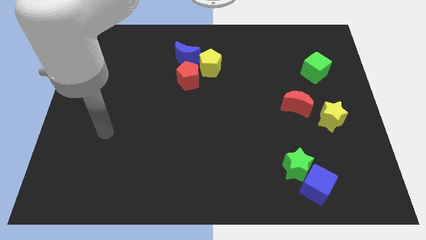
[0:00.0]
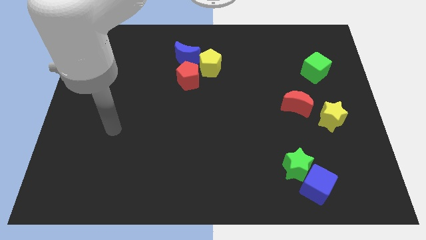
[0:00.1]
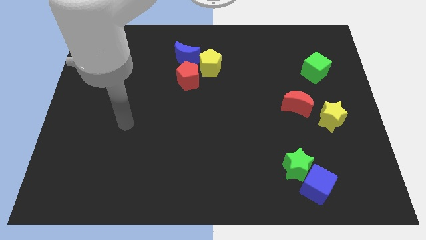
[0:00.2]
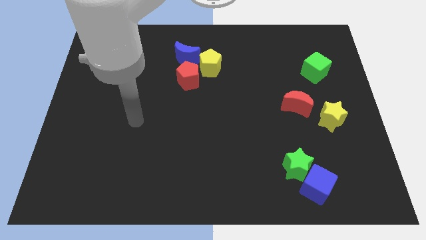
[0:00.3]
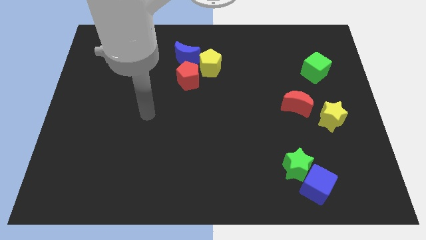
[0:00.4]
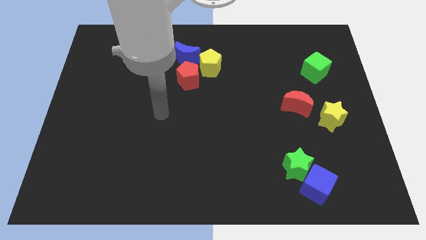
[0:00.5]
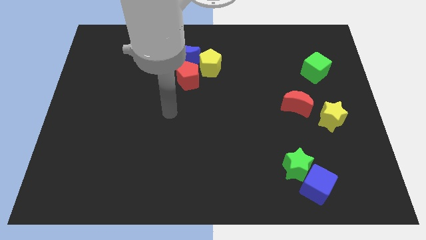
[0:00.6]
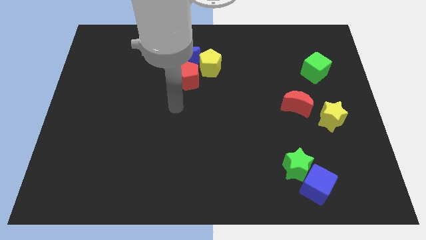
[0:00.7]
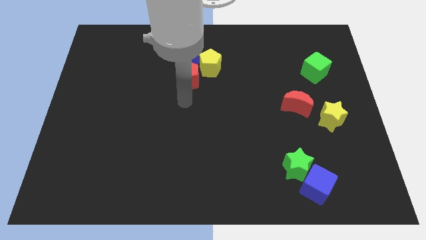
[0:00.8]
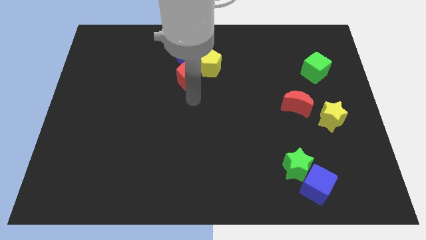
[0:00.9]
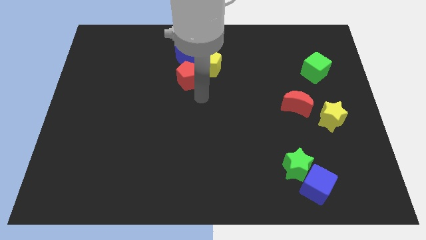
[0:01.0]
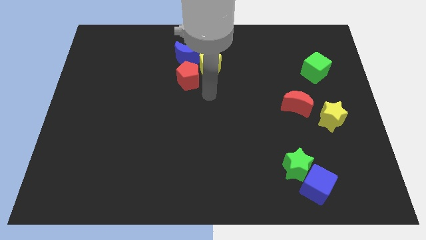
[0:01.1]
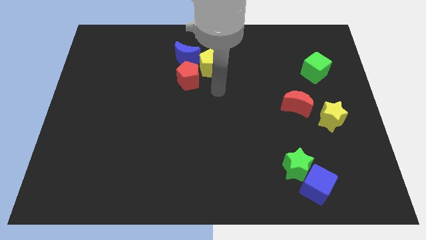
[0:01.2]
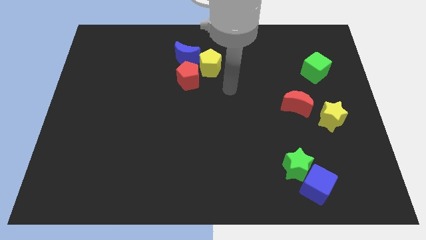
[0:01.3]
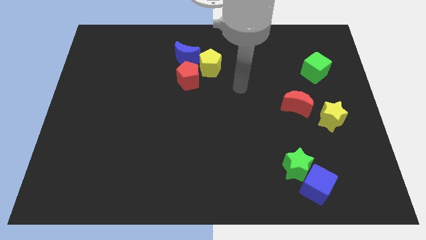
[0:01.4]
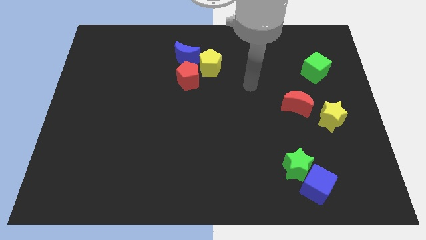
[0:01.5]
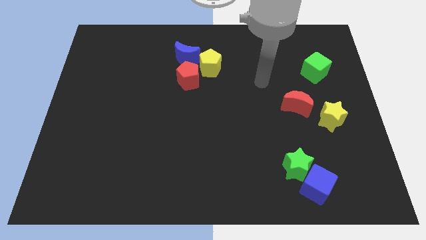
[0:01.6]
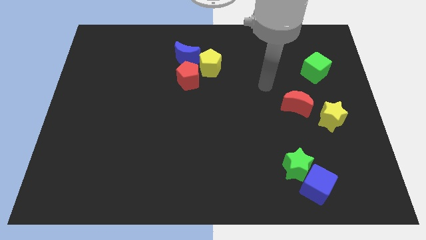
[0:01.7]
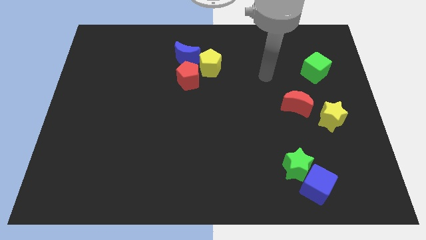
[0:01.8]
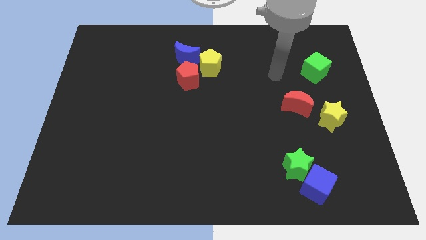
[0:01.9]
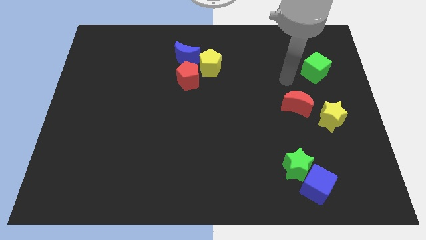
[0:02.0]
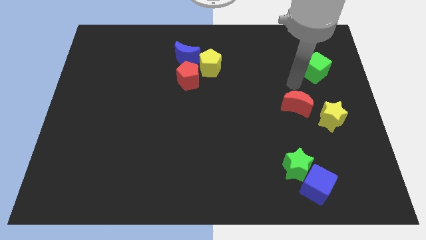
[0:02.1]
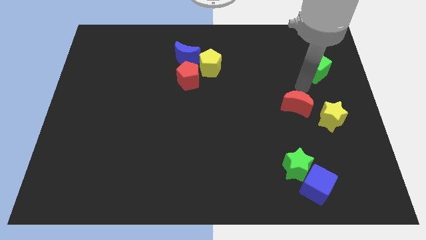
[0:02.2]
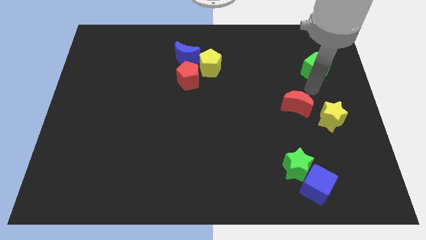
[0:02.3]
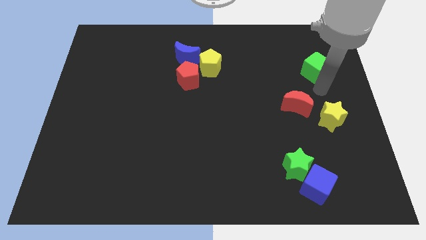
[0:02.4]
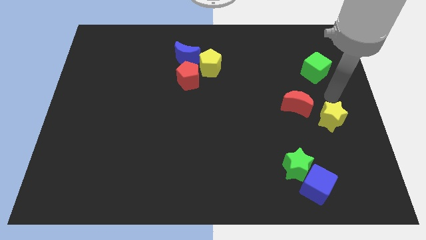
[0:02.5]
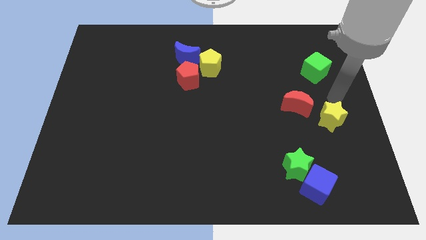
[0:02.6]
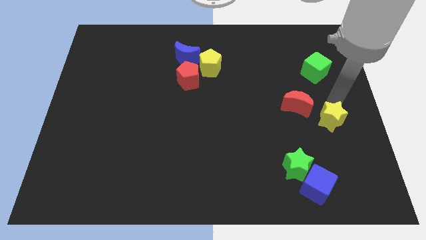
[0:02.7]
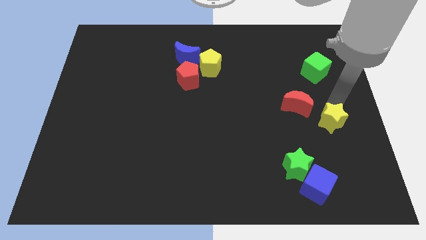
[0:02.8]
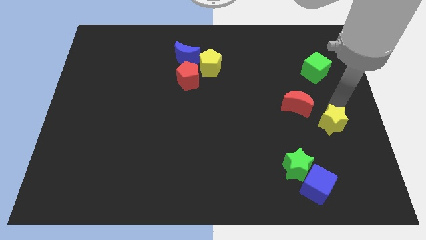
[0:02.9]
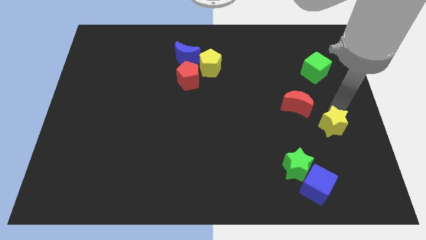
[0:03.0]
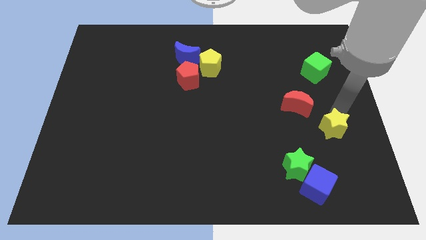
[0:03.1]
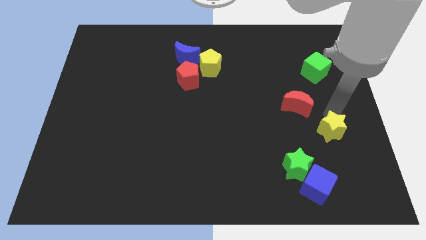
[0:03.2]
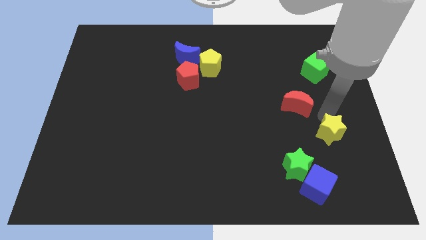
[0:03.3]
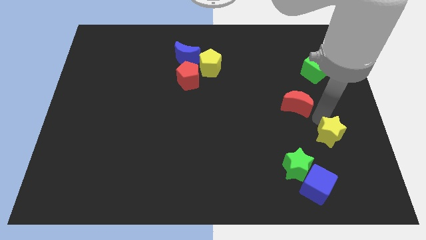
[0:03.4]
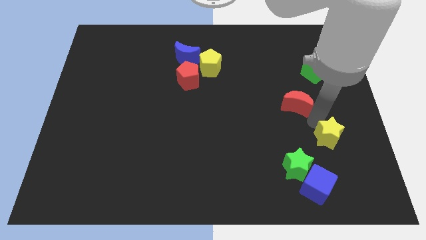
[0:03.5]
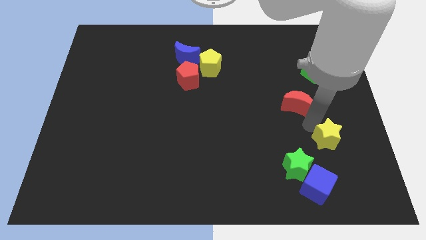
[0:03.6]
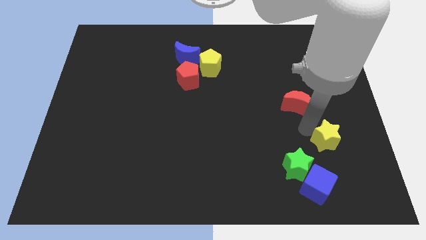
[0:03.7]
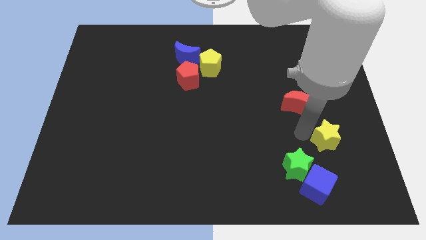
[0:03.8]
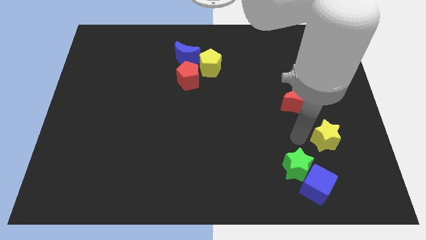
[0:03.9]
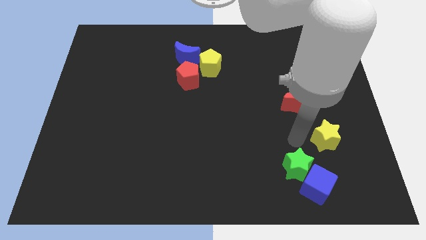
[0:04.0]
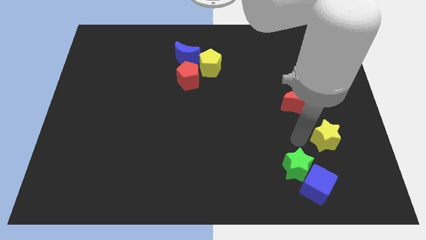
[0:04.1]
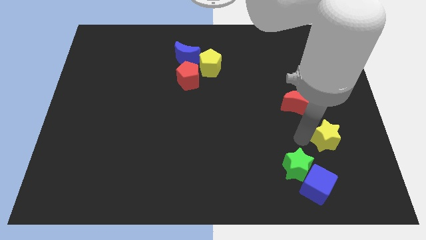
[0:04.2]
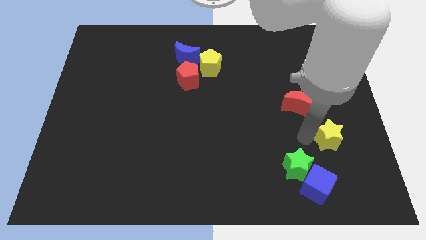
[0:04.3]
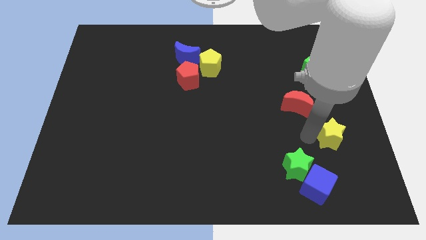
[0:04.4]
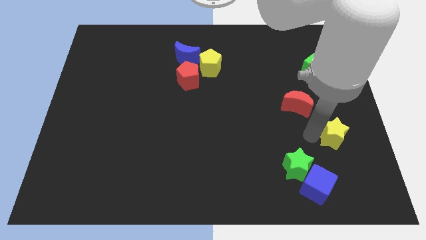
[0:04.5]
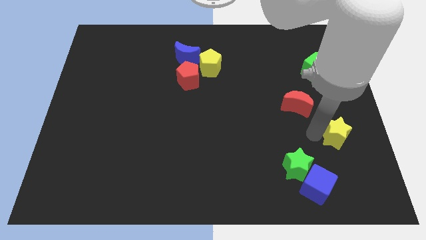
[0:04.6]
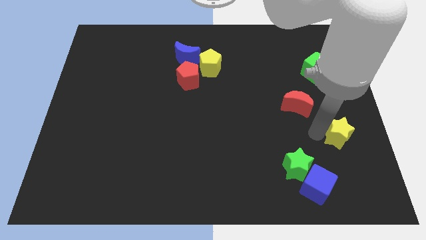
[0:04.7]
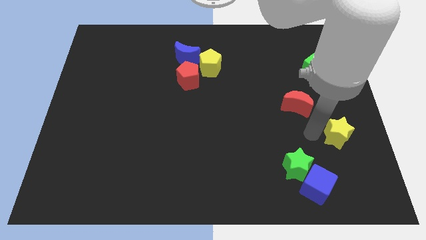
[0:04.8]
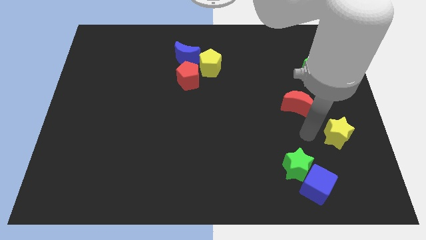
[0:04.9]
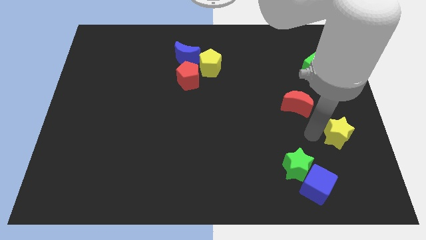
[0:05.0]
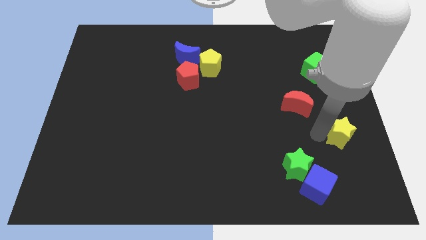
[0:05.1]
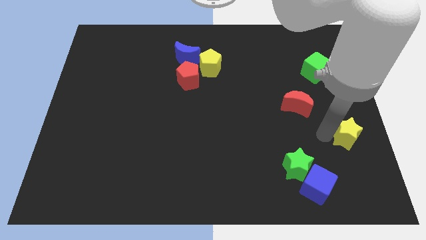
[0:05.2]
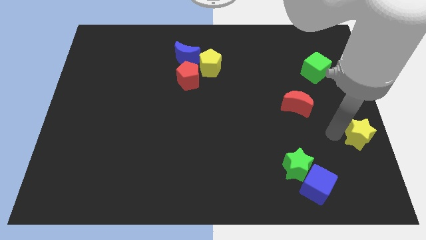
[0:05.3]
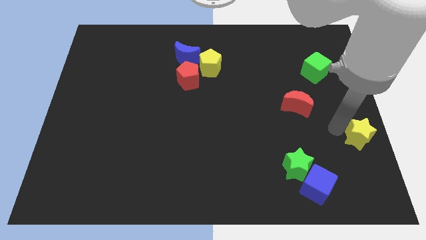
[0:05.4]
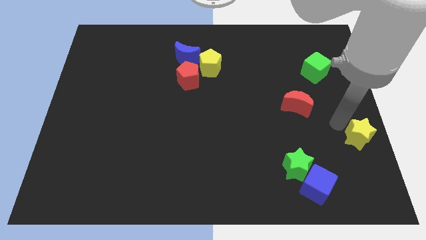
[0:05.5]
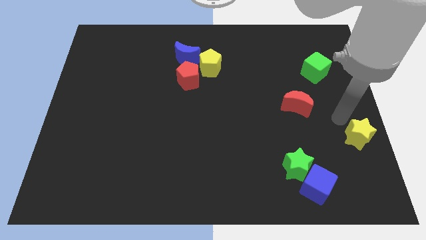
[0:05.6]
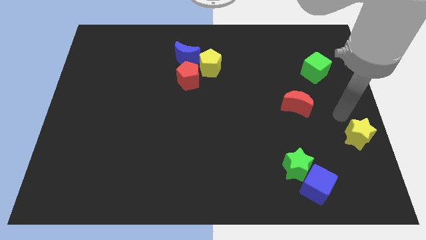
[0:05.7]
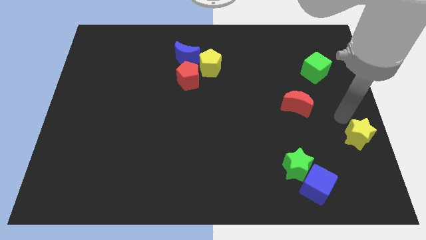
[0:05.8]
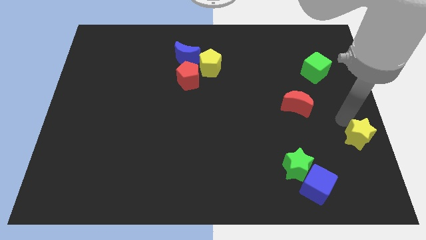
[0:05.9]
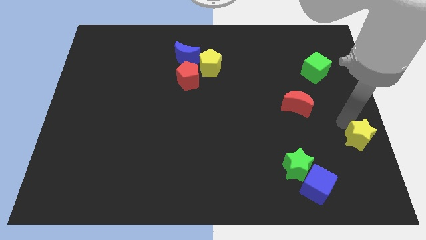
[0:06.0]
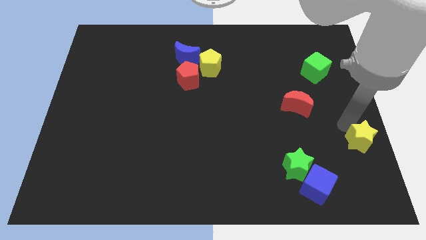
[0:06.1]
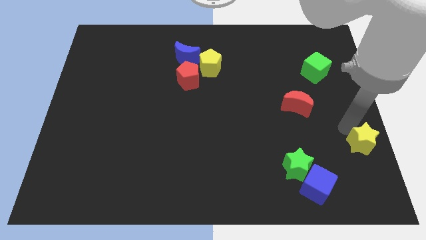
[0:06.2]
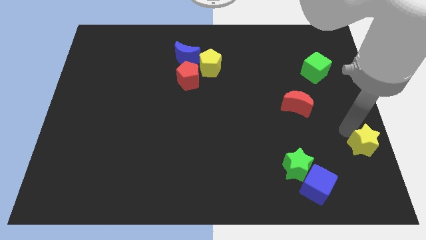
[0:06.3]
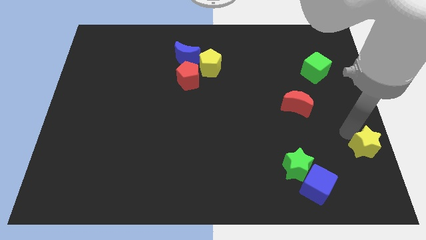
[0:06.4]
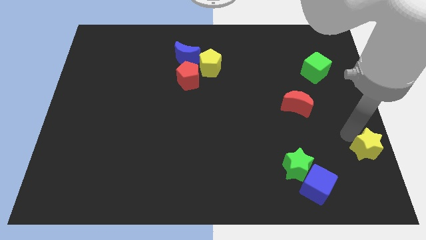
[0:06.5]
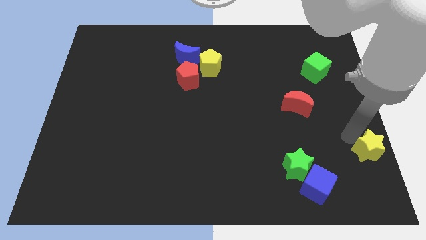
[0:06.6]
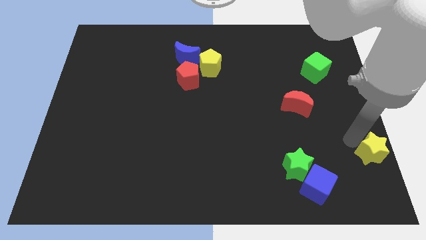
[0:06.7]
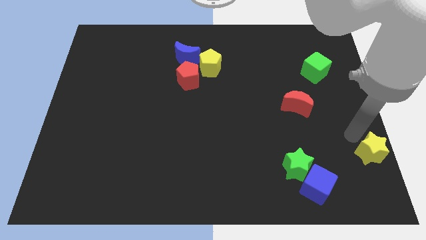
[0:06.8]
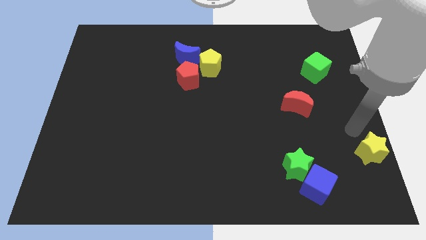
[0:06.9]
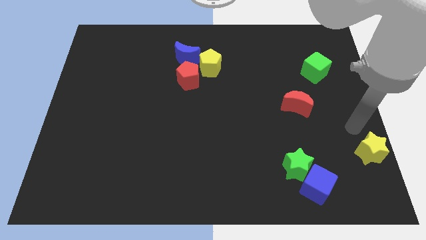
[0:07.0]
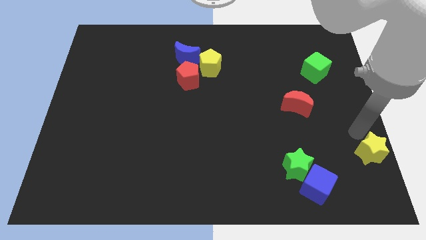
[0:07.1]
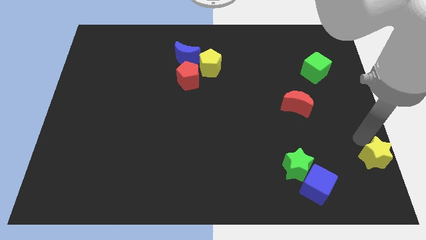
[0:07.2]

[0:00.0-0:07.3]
move the yellow star to the bottom right corner
